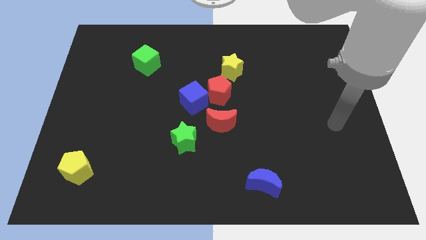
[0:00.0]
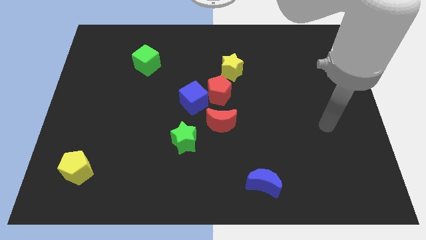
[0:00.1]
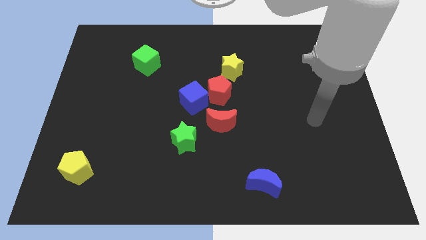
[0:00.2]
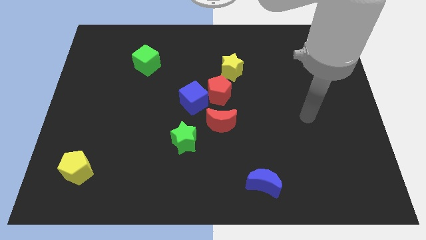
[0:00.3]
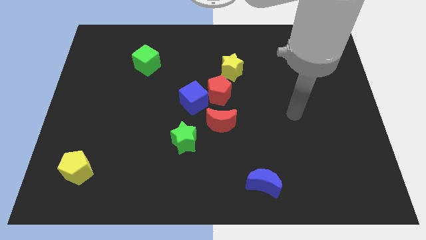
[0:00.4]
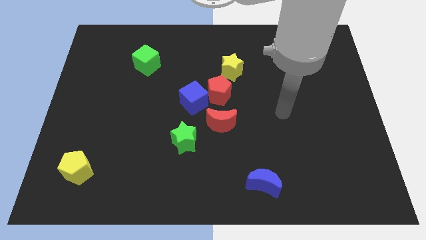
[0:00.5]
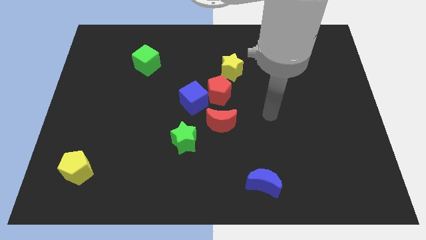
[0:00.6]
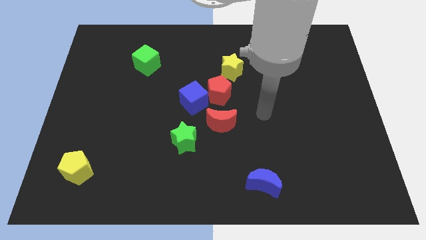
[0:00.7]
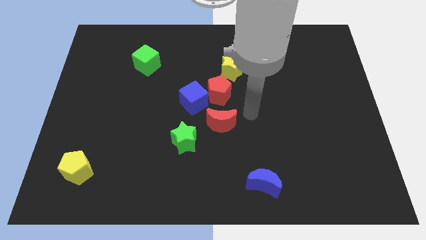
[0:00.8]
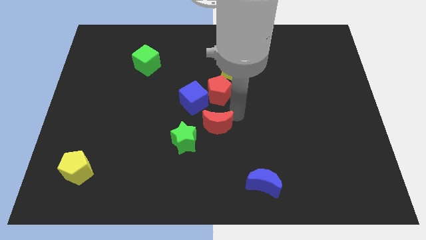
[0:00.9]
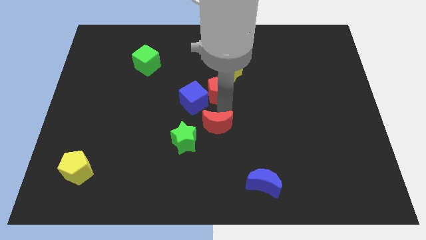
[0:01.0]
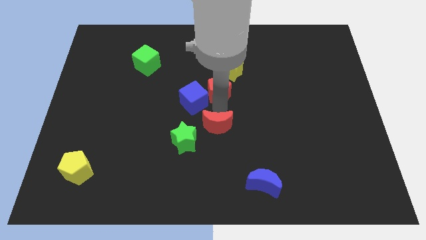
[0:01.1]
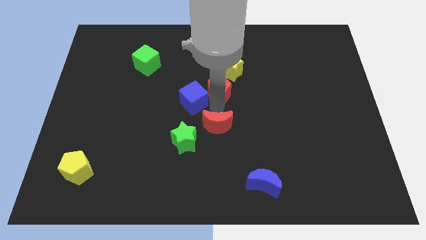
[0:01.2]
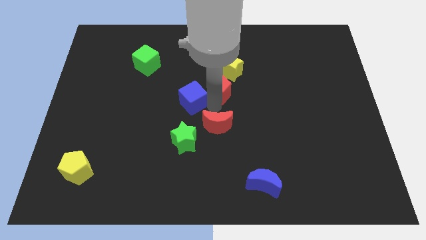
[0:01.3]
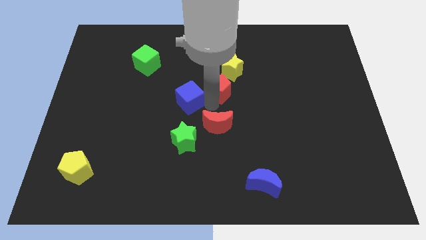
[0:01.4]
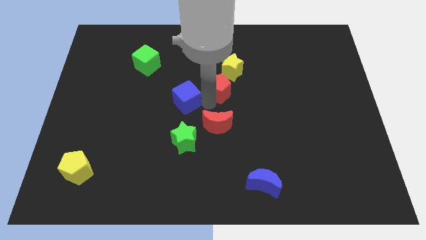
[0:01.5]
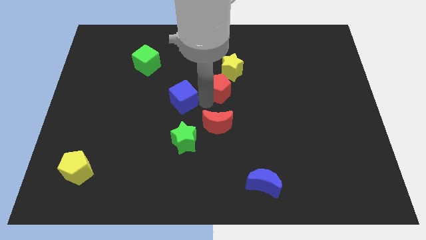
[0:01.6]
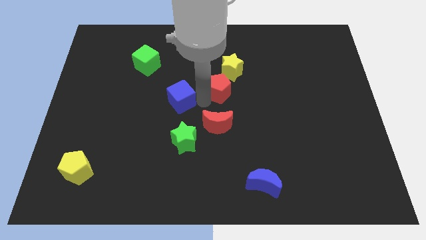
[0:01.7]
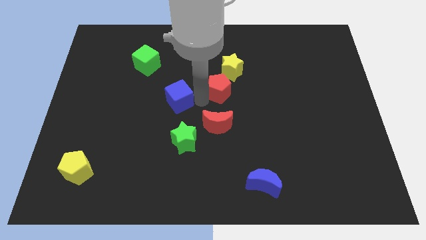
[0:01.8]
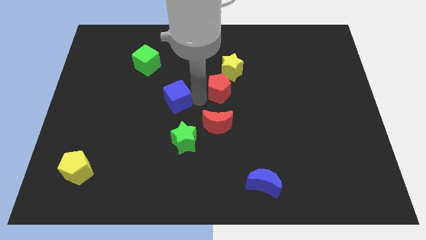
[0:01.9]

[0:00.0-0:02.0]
move the blue cube away from the red pentagon and red moon

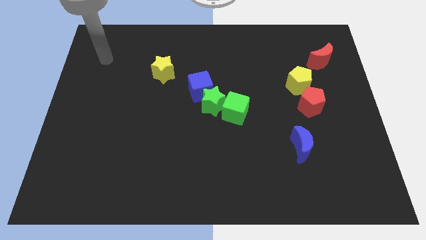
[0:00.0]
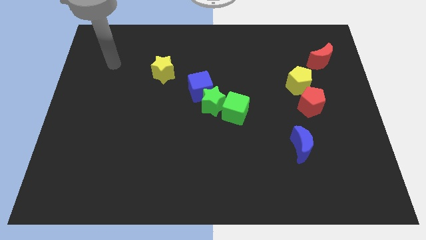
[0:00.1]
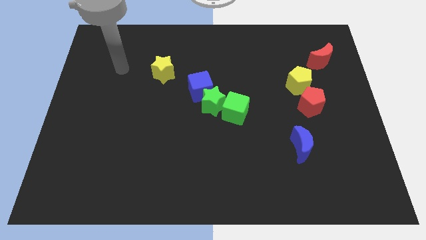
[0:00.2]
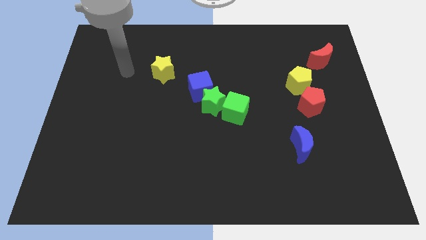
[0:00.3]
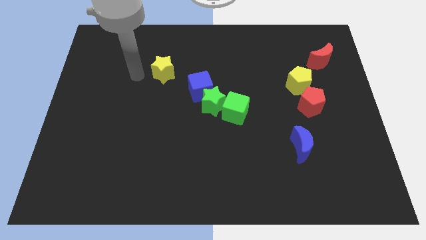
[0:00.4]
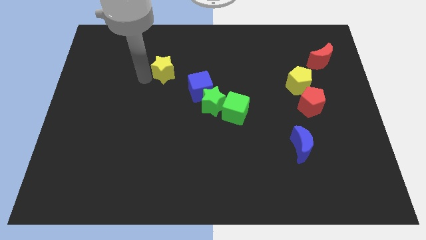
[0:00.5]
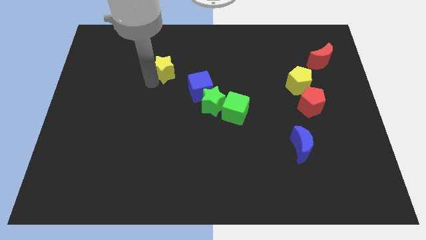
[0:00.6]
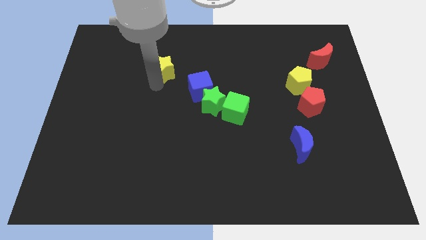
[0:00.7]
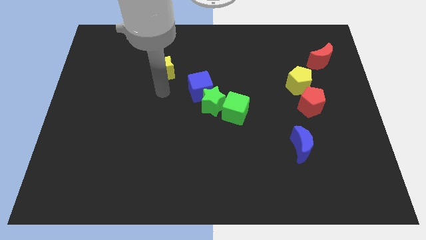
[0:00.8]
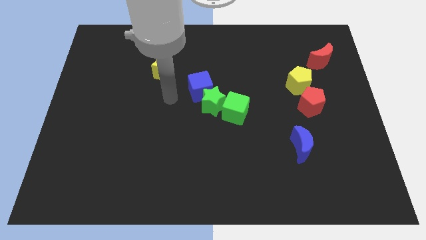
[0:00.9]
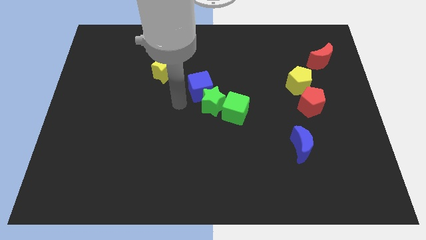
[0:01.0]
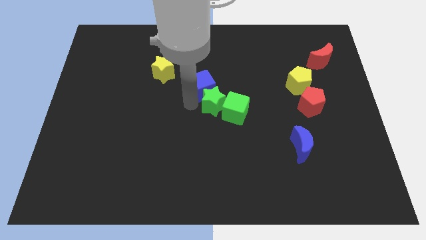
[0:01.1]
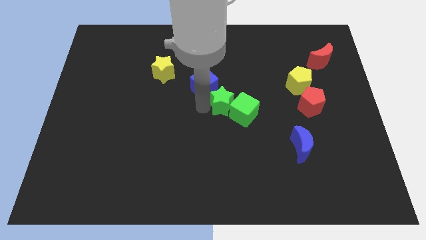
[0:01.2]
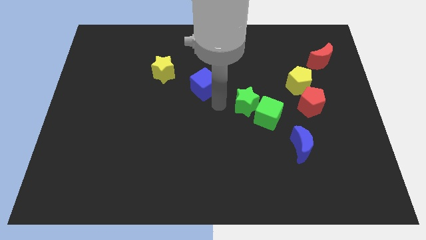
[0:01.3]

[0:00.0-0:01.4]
move the blue cube away from the green star

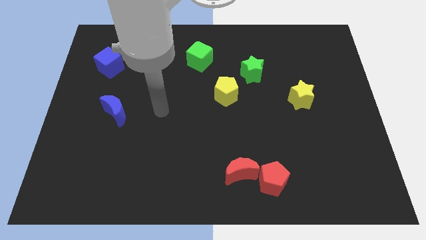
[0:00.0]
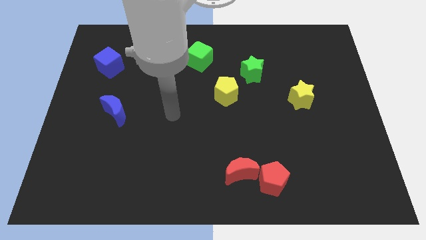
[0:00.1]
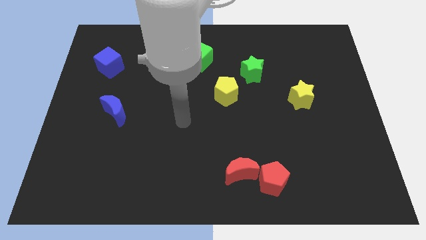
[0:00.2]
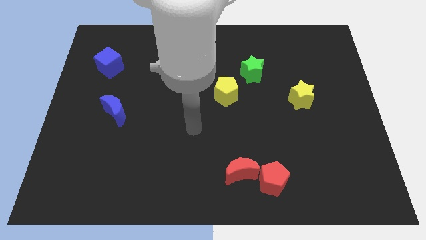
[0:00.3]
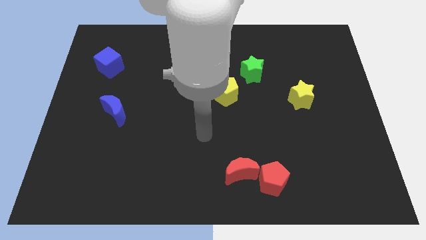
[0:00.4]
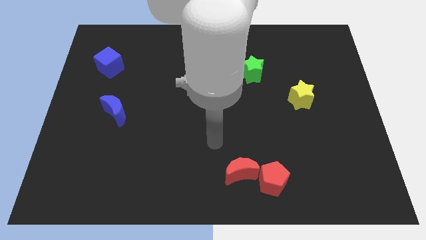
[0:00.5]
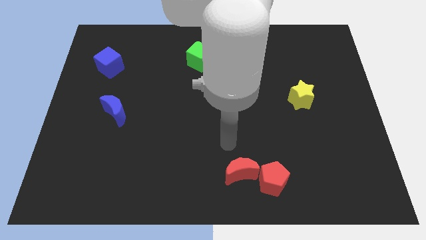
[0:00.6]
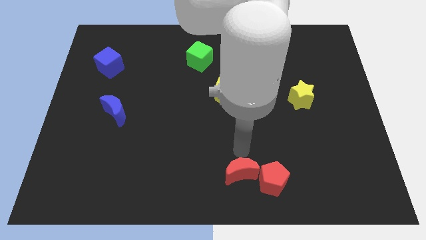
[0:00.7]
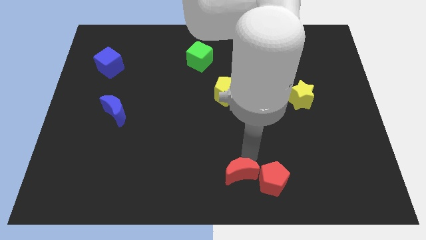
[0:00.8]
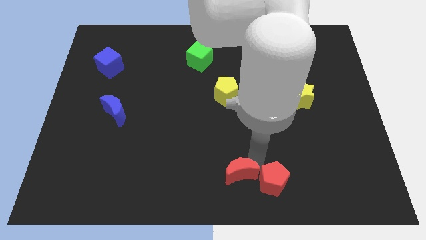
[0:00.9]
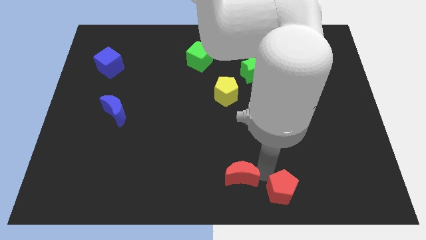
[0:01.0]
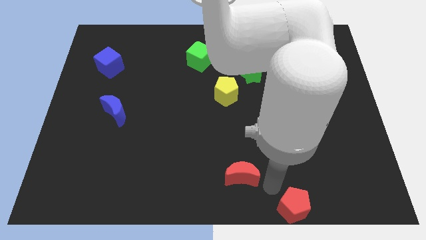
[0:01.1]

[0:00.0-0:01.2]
separate the red moon from the red pentagon

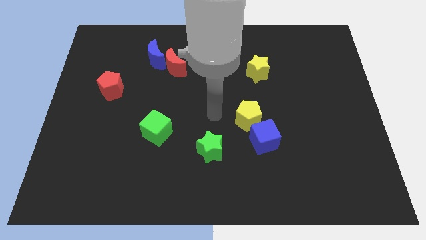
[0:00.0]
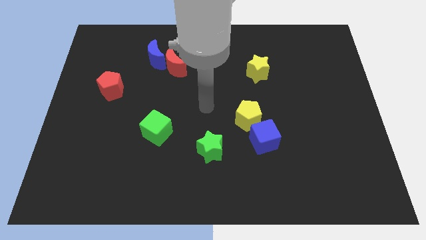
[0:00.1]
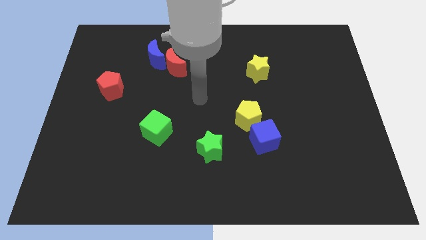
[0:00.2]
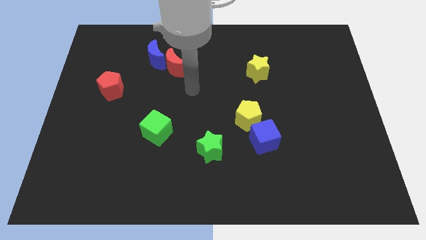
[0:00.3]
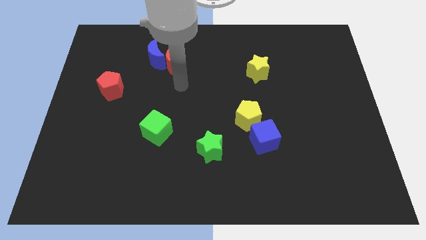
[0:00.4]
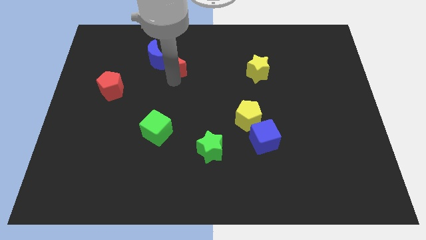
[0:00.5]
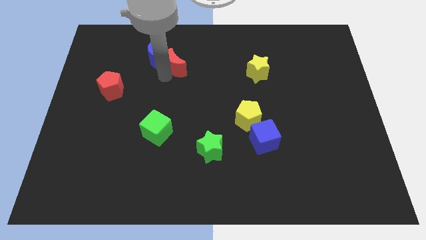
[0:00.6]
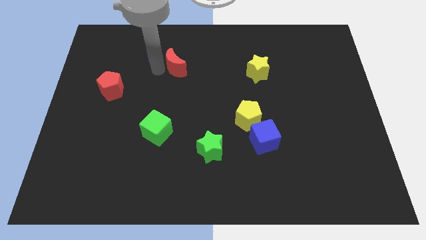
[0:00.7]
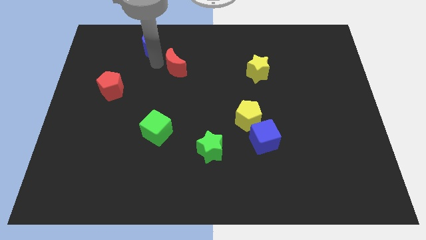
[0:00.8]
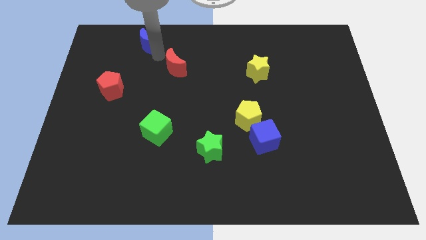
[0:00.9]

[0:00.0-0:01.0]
pull the red moon apart from the blue moon

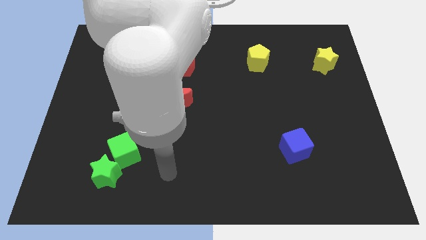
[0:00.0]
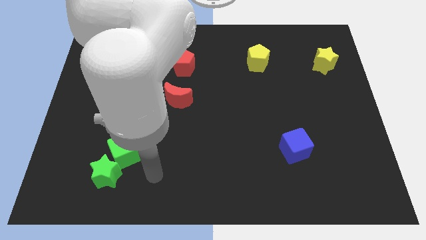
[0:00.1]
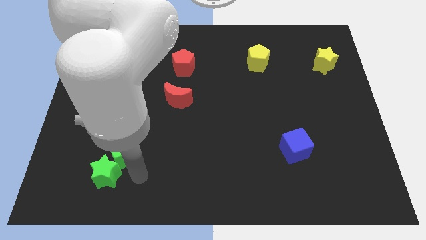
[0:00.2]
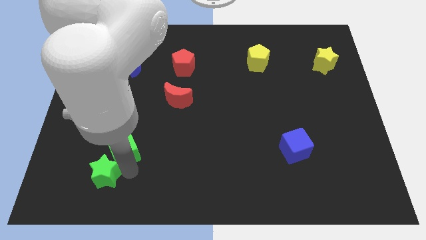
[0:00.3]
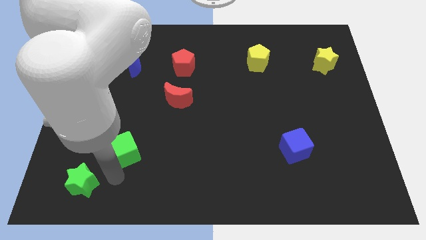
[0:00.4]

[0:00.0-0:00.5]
pull the green cube apart from the green star

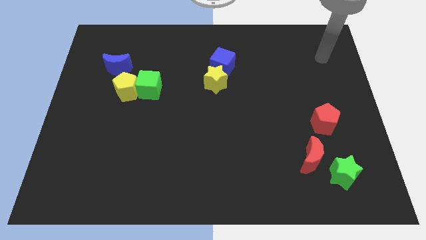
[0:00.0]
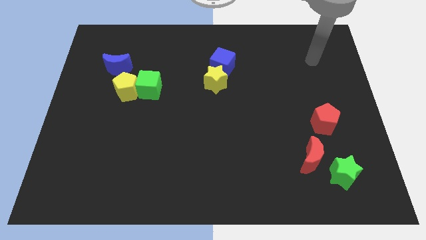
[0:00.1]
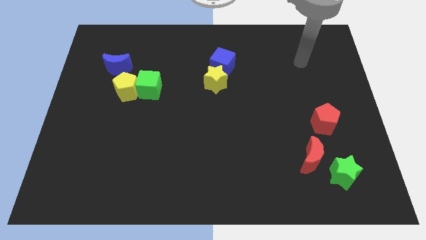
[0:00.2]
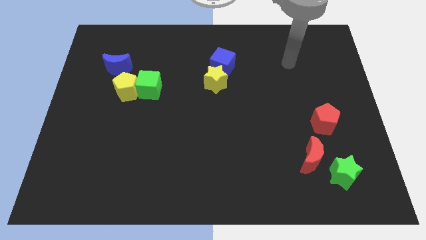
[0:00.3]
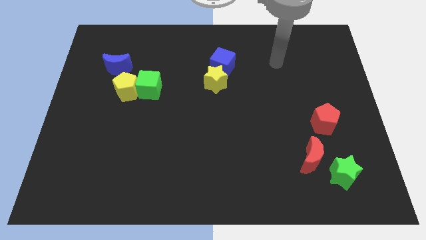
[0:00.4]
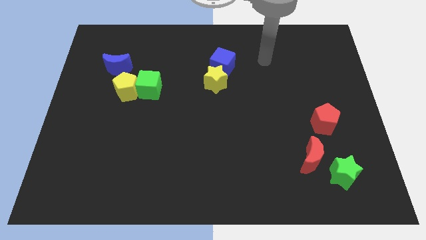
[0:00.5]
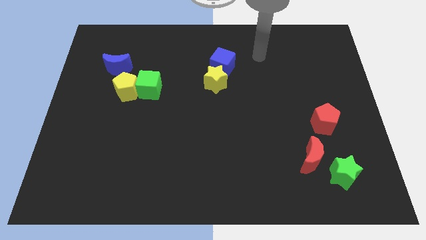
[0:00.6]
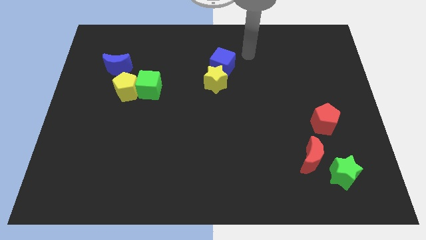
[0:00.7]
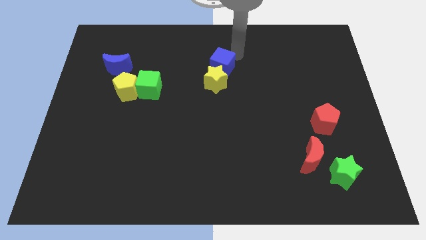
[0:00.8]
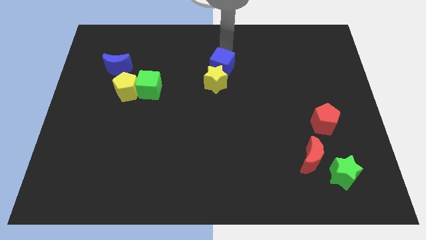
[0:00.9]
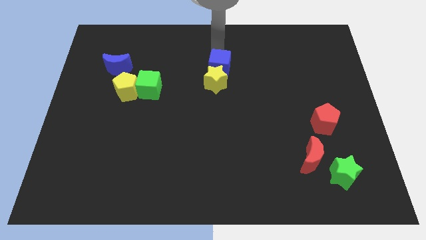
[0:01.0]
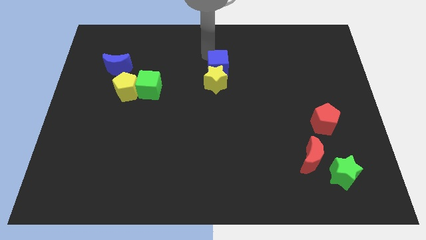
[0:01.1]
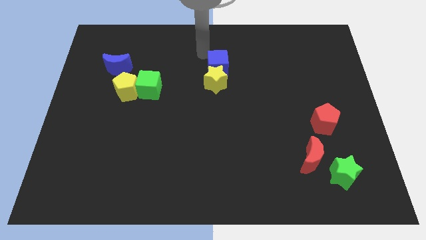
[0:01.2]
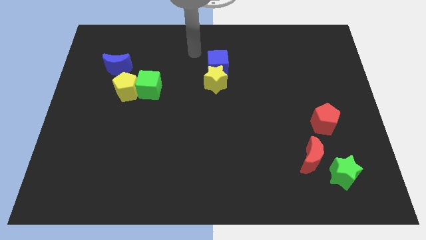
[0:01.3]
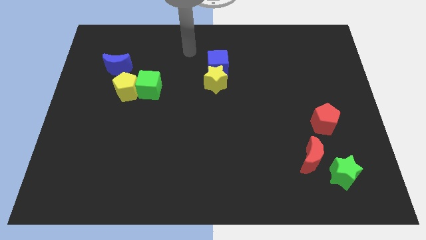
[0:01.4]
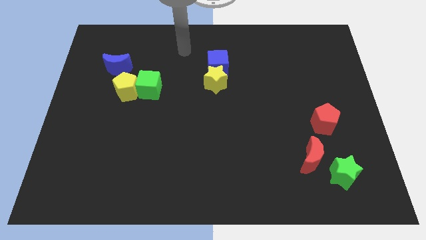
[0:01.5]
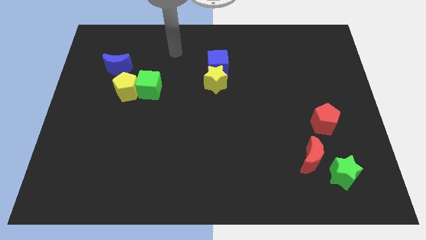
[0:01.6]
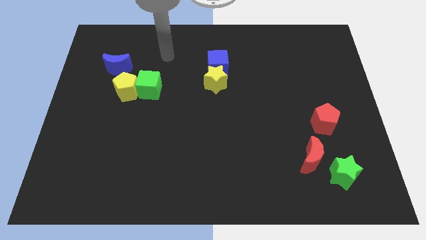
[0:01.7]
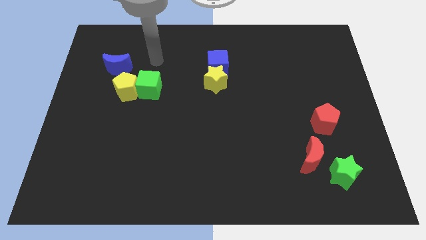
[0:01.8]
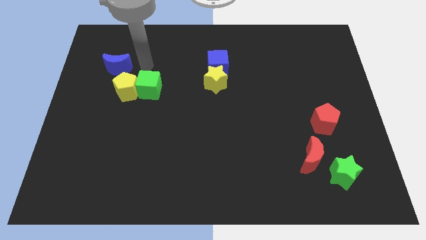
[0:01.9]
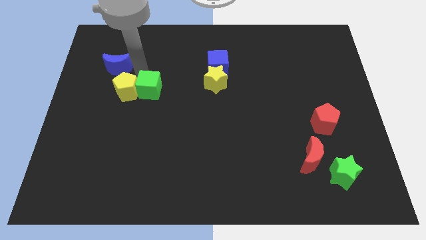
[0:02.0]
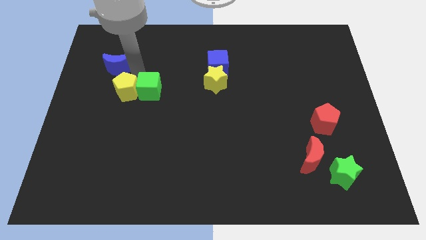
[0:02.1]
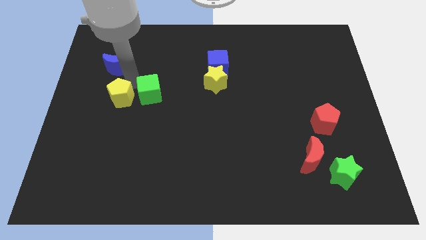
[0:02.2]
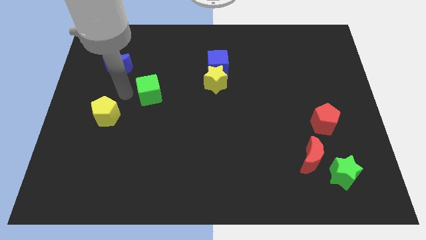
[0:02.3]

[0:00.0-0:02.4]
move the green cube away from the yellow pentagon

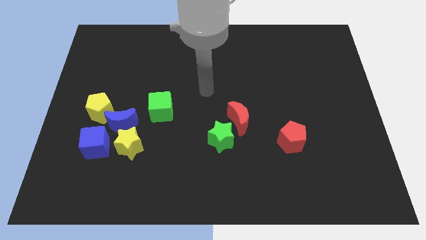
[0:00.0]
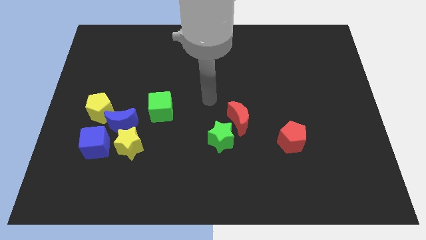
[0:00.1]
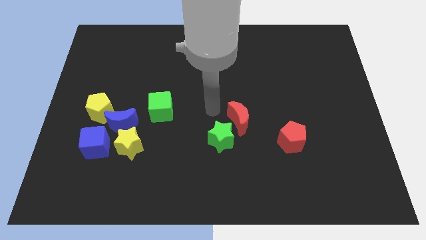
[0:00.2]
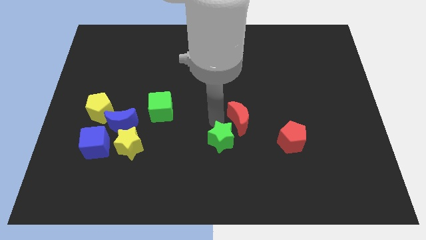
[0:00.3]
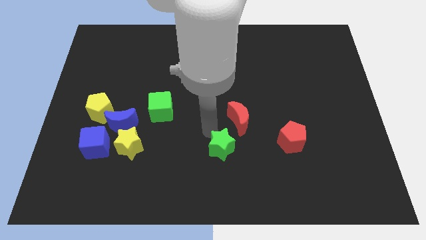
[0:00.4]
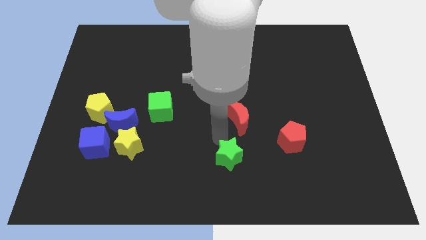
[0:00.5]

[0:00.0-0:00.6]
pull the red moon apart from the green star

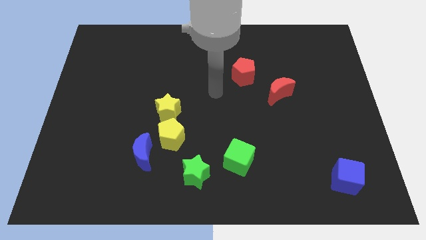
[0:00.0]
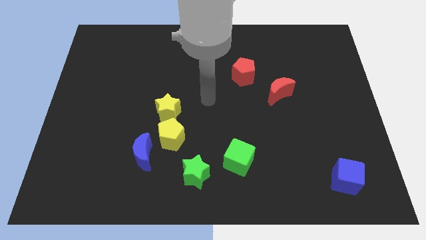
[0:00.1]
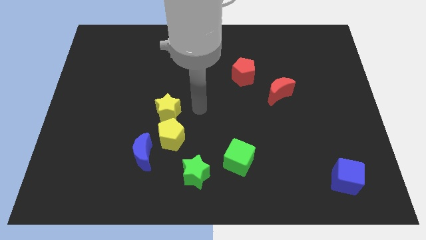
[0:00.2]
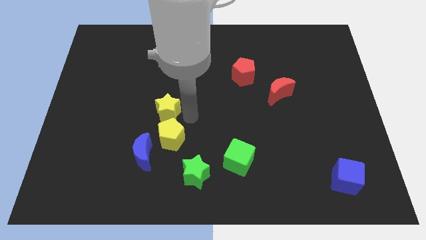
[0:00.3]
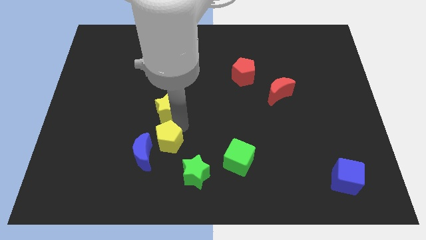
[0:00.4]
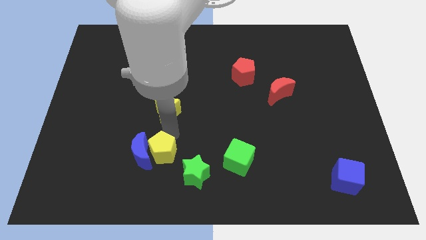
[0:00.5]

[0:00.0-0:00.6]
separate the yellow star from the yellow pentagon
